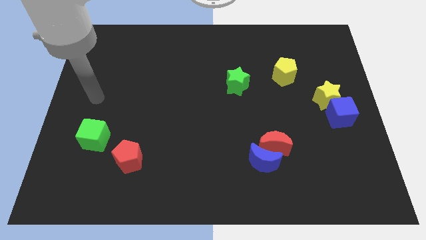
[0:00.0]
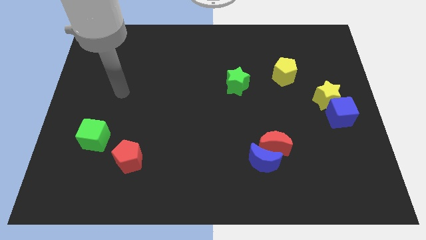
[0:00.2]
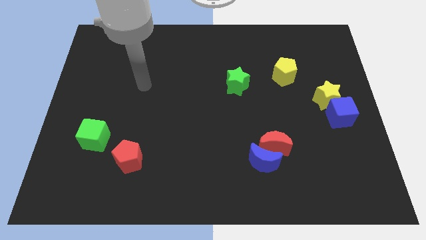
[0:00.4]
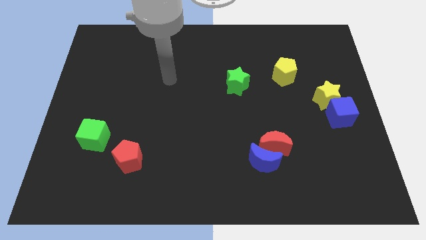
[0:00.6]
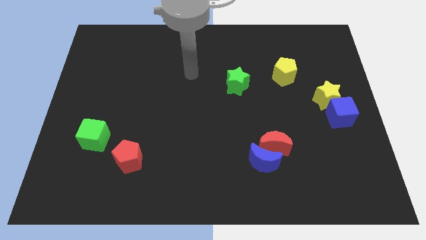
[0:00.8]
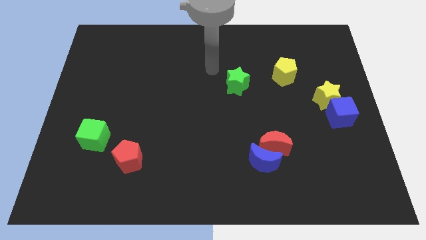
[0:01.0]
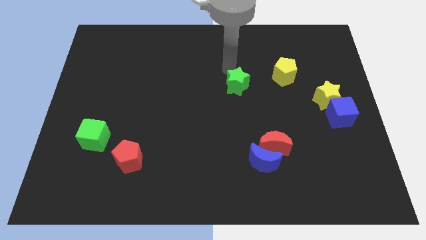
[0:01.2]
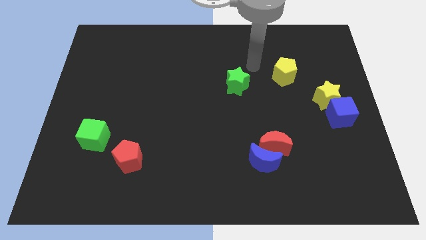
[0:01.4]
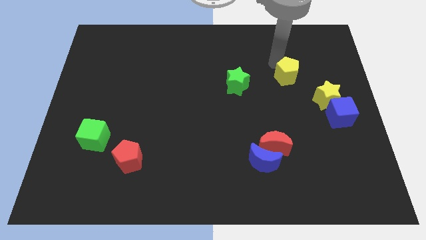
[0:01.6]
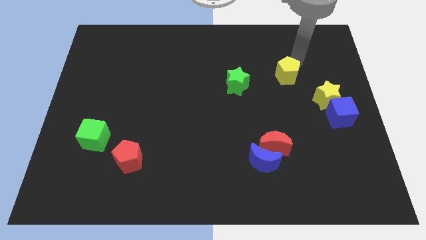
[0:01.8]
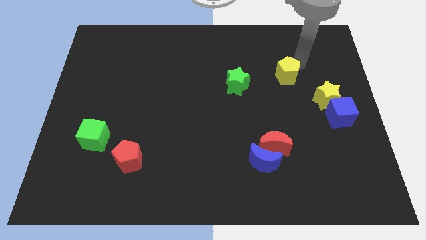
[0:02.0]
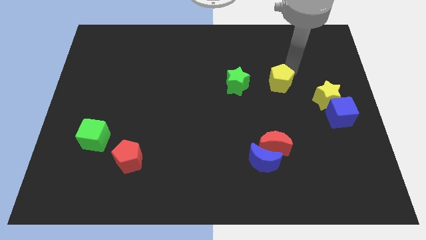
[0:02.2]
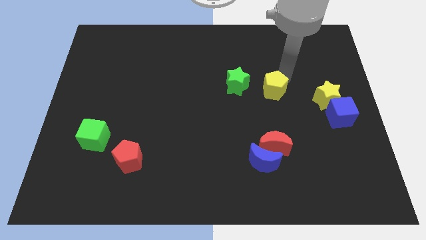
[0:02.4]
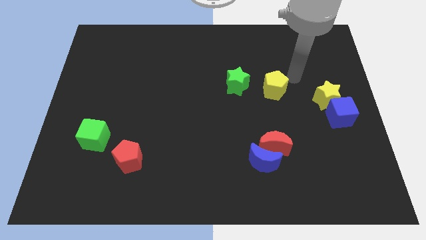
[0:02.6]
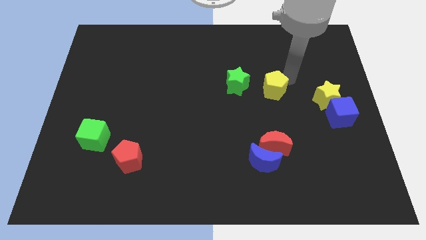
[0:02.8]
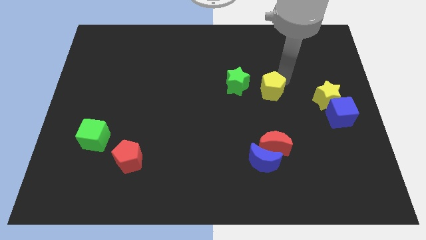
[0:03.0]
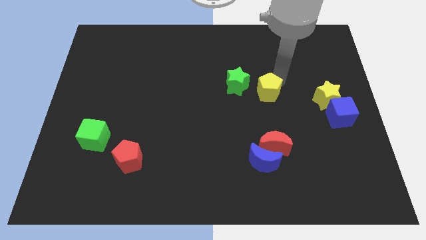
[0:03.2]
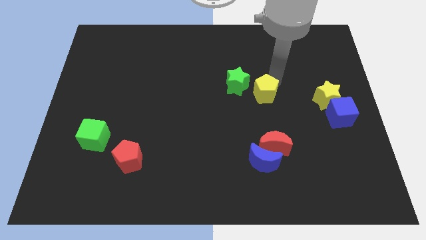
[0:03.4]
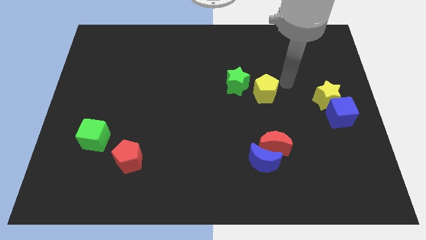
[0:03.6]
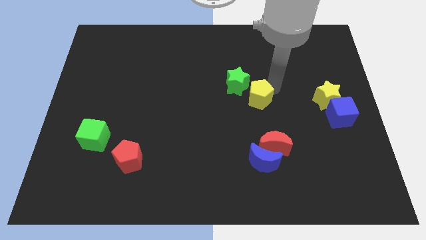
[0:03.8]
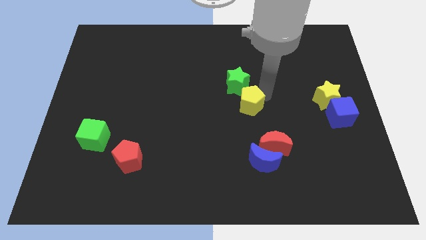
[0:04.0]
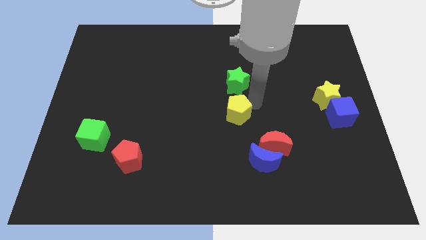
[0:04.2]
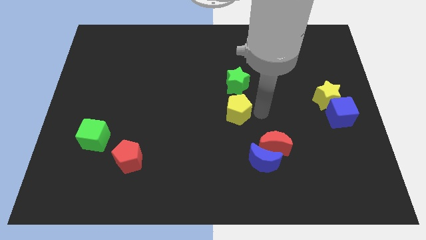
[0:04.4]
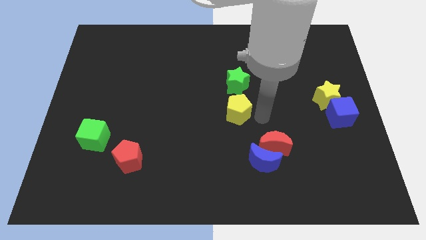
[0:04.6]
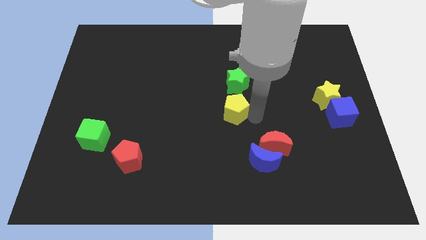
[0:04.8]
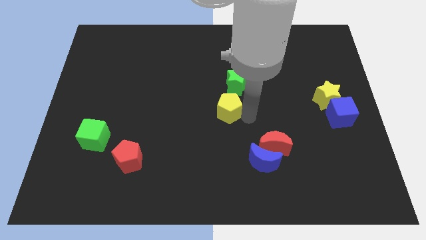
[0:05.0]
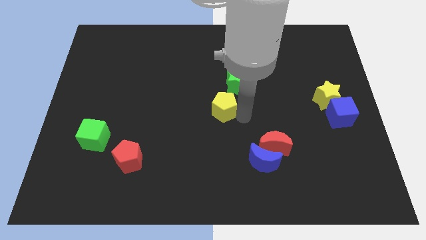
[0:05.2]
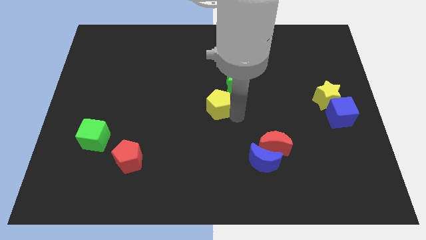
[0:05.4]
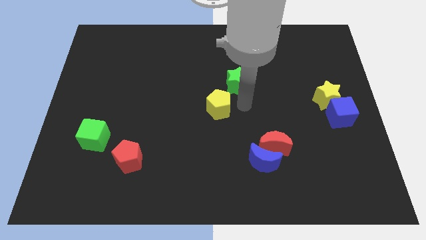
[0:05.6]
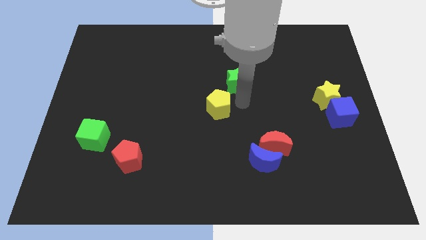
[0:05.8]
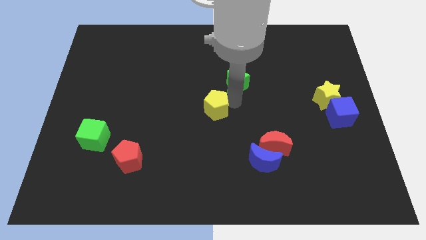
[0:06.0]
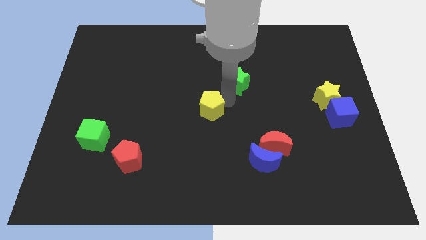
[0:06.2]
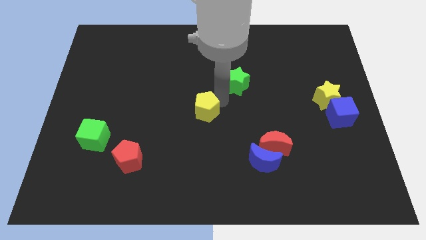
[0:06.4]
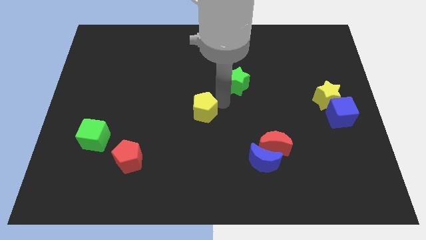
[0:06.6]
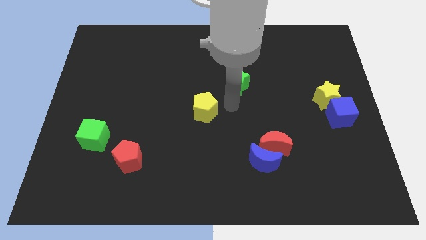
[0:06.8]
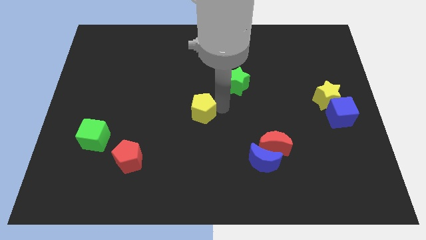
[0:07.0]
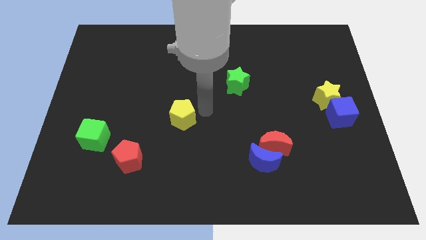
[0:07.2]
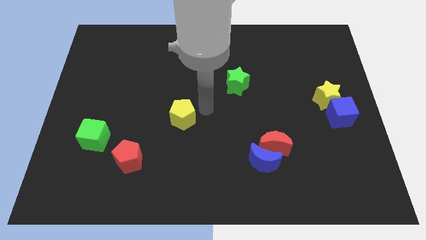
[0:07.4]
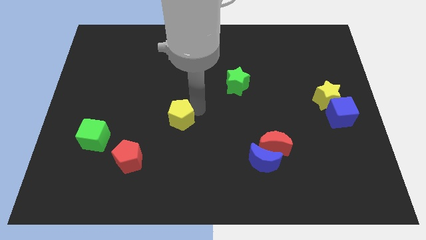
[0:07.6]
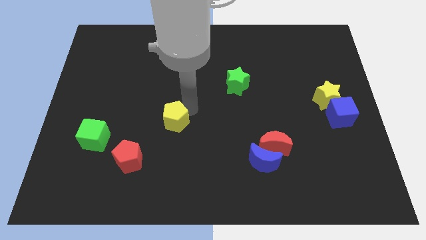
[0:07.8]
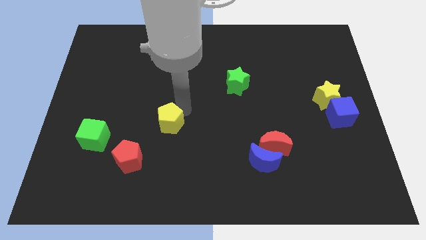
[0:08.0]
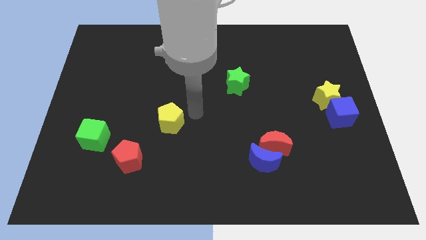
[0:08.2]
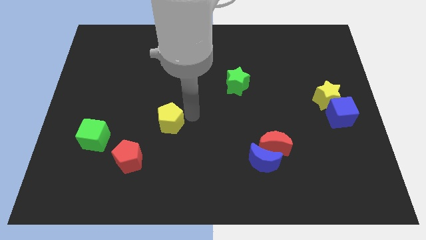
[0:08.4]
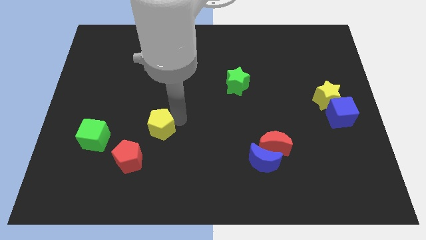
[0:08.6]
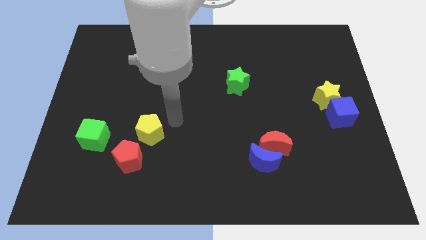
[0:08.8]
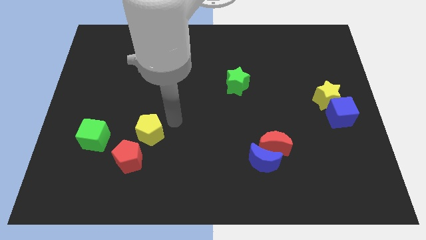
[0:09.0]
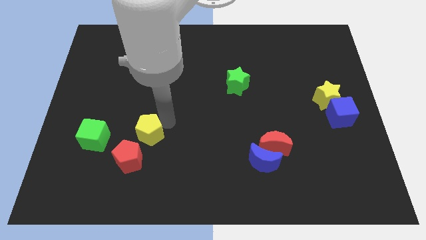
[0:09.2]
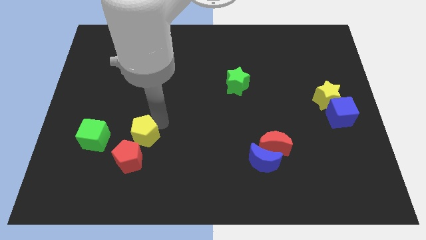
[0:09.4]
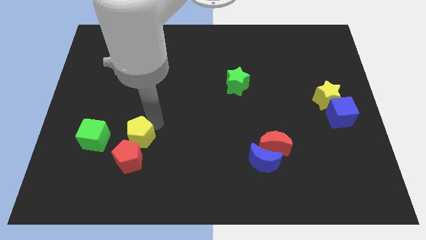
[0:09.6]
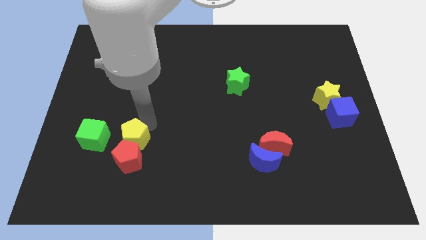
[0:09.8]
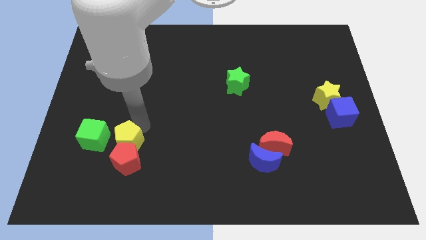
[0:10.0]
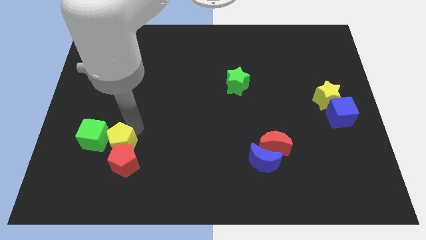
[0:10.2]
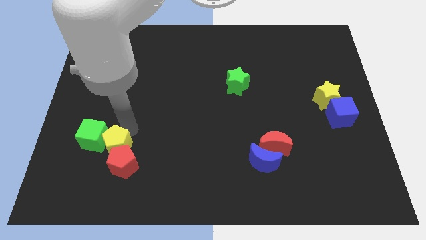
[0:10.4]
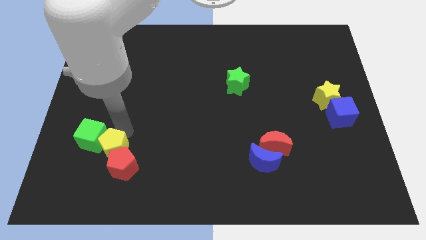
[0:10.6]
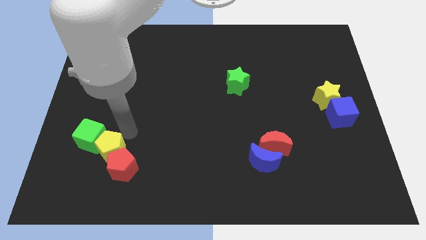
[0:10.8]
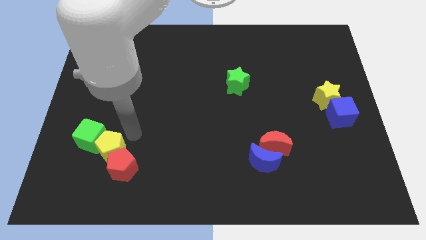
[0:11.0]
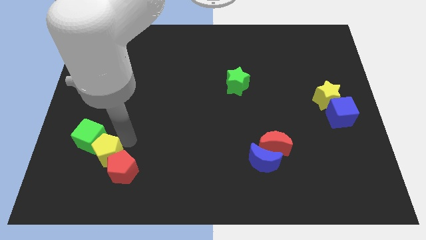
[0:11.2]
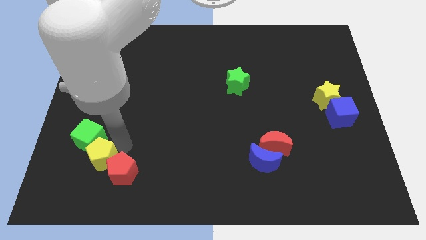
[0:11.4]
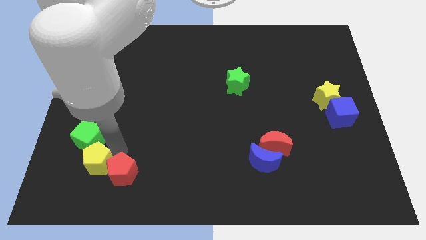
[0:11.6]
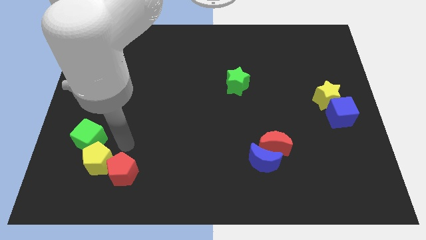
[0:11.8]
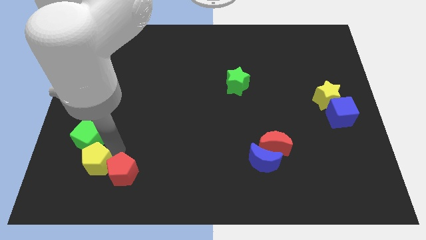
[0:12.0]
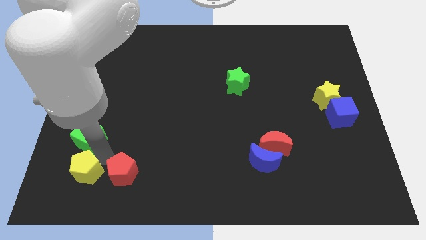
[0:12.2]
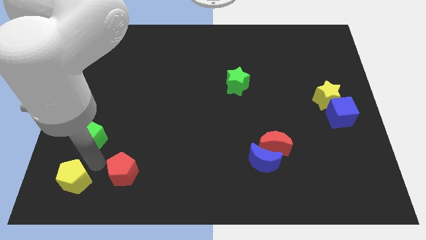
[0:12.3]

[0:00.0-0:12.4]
push the yellow pentagon to the bottom left
